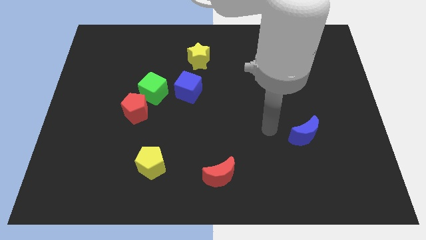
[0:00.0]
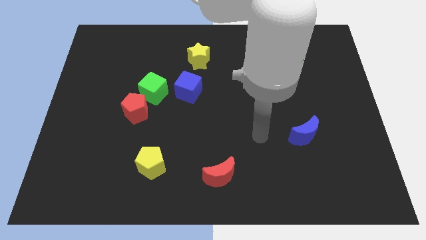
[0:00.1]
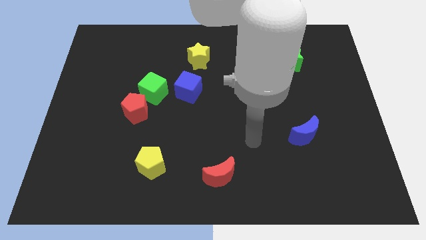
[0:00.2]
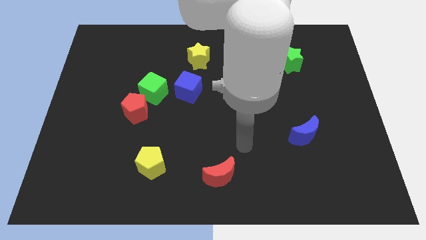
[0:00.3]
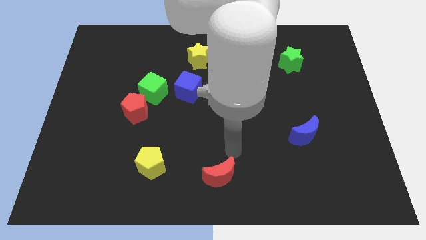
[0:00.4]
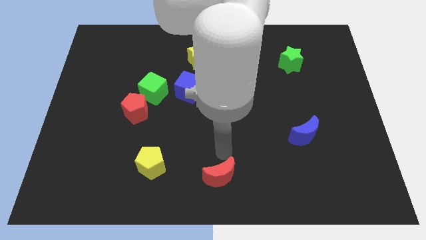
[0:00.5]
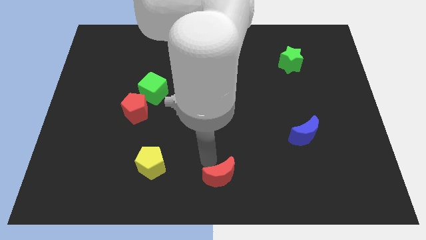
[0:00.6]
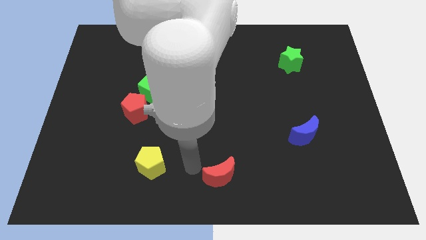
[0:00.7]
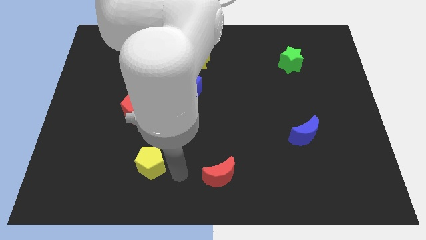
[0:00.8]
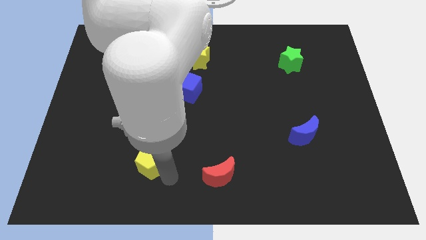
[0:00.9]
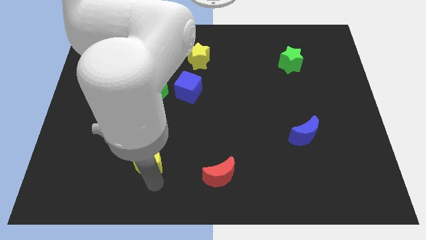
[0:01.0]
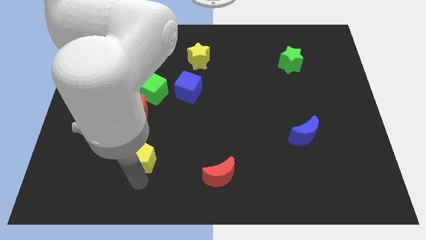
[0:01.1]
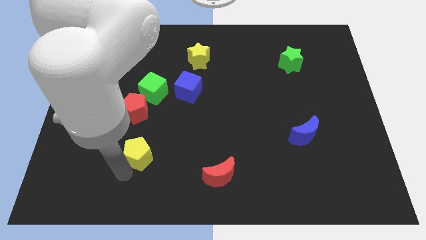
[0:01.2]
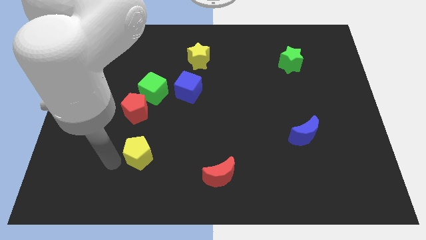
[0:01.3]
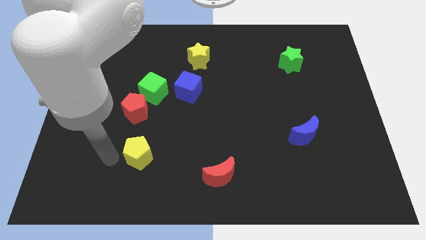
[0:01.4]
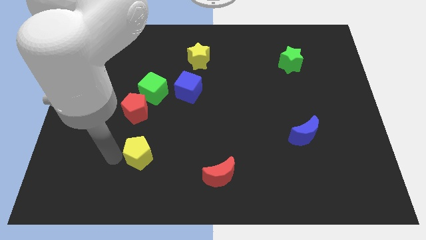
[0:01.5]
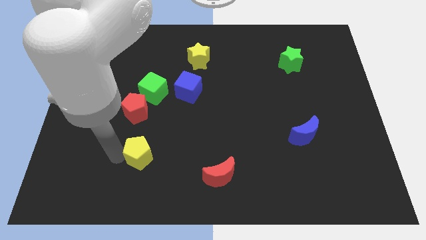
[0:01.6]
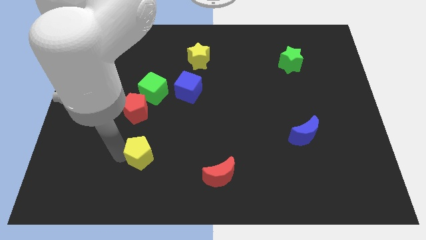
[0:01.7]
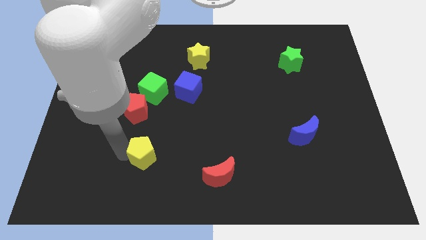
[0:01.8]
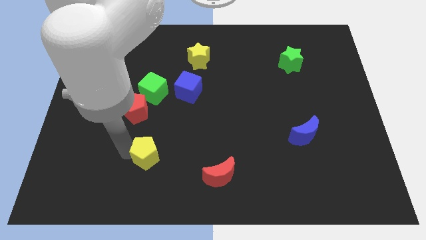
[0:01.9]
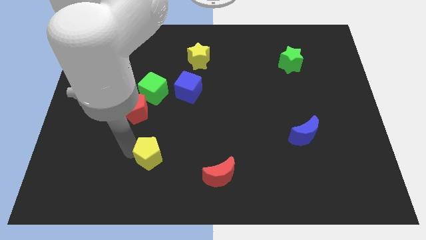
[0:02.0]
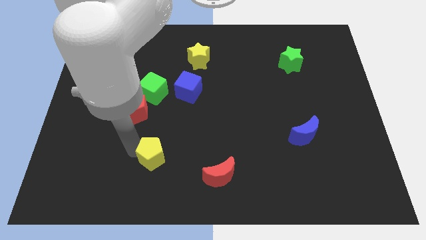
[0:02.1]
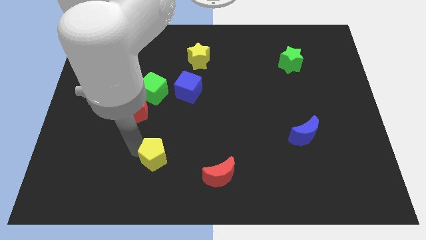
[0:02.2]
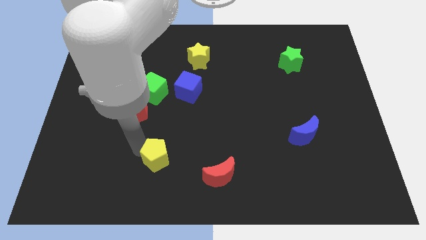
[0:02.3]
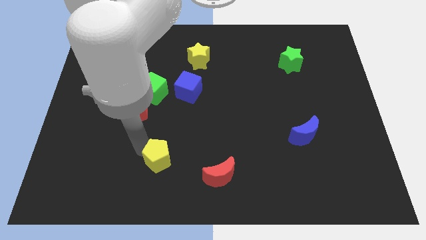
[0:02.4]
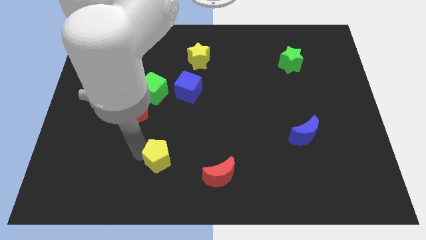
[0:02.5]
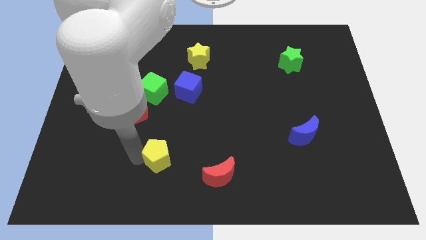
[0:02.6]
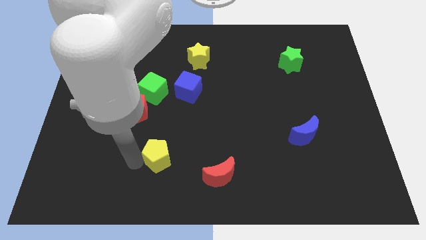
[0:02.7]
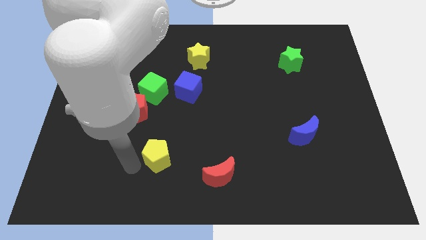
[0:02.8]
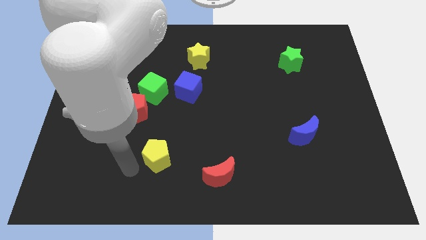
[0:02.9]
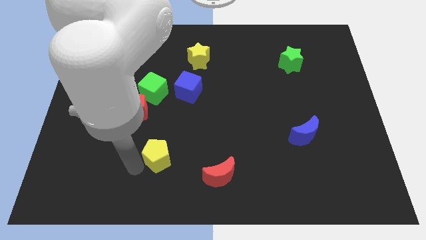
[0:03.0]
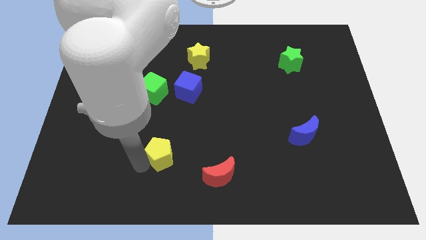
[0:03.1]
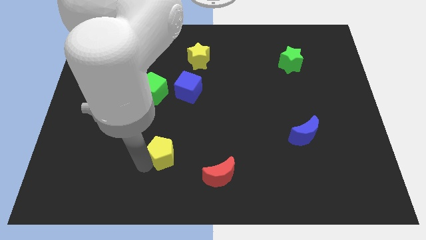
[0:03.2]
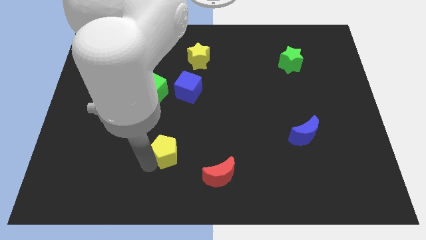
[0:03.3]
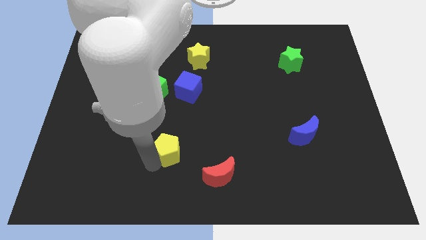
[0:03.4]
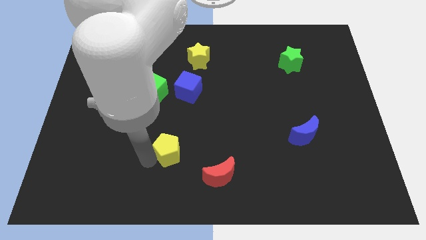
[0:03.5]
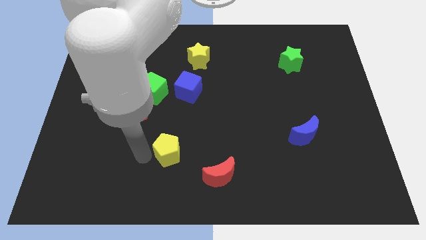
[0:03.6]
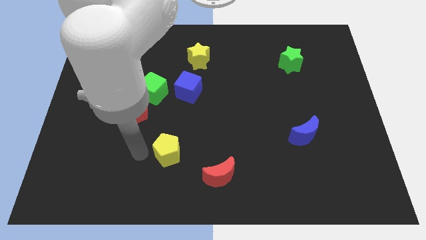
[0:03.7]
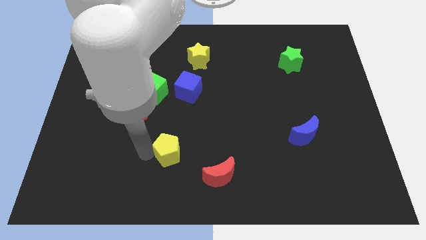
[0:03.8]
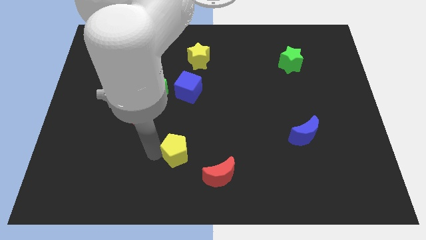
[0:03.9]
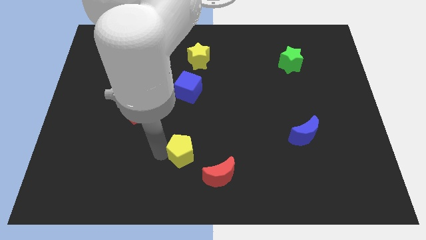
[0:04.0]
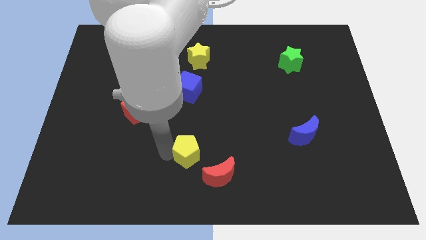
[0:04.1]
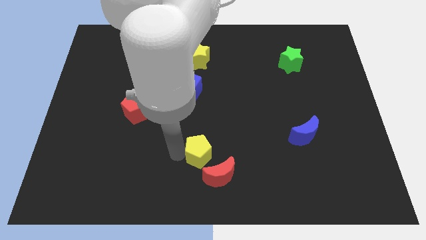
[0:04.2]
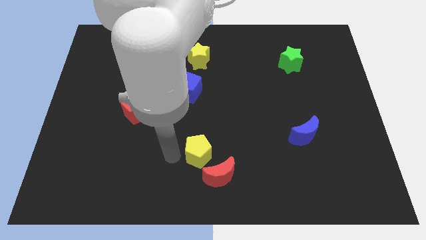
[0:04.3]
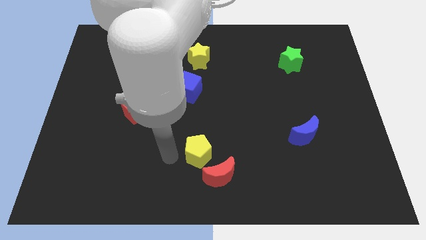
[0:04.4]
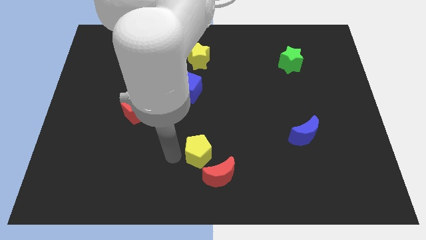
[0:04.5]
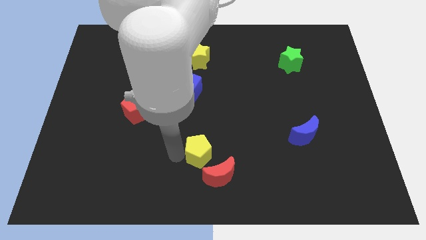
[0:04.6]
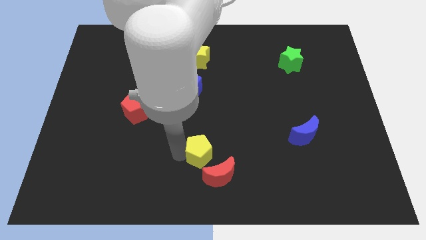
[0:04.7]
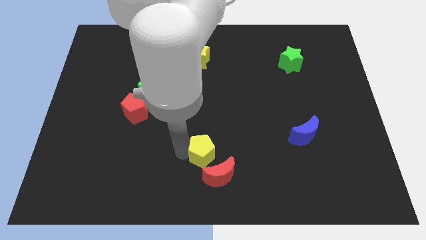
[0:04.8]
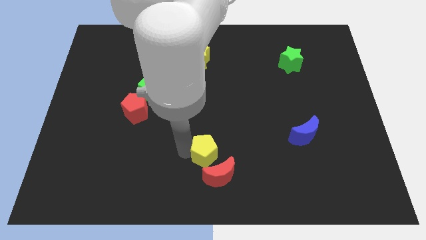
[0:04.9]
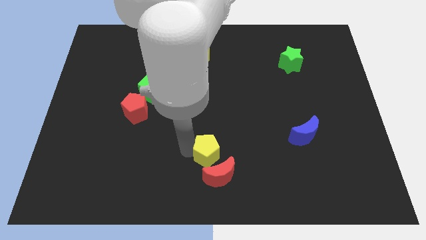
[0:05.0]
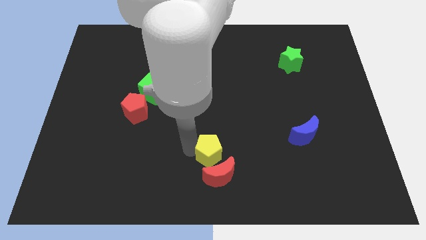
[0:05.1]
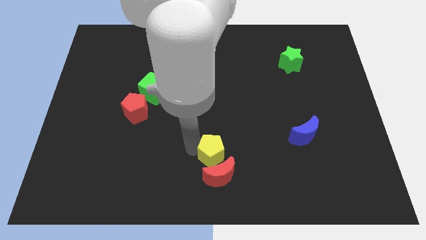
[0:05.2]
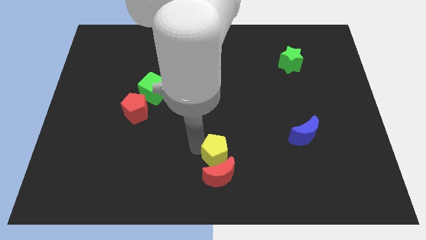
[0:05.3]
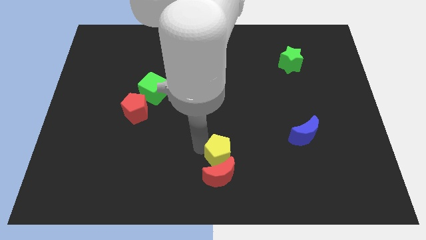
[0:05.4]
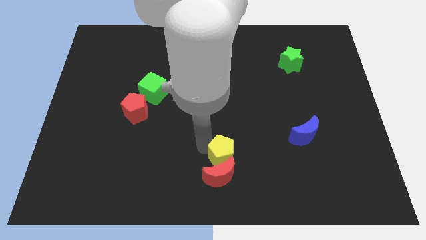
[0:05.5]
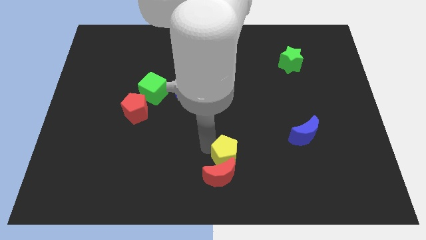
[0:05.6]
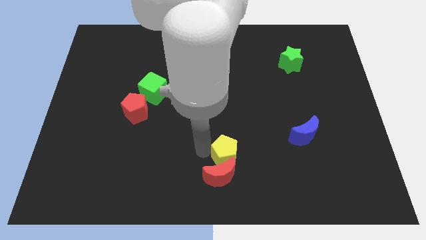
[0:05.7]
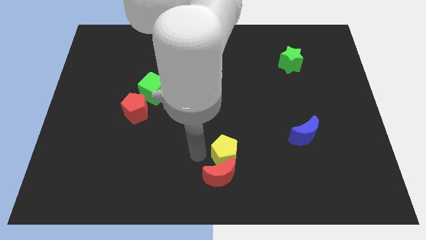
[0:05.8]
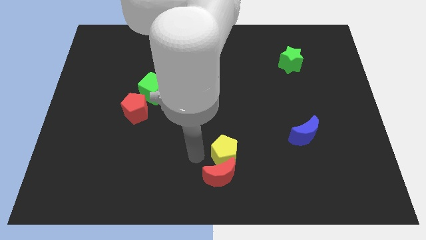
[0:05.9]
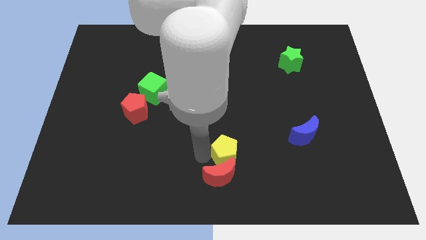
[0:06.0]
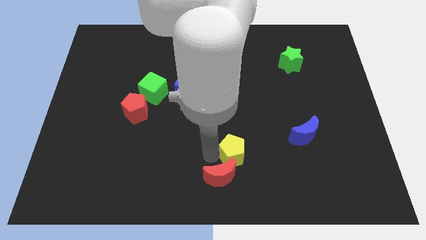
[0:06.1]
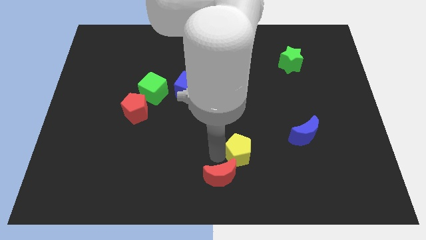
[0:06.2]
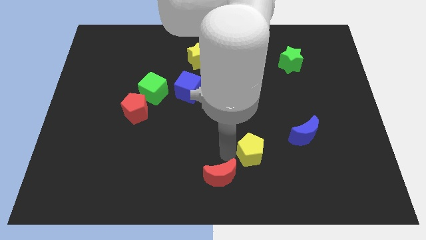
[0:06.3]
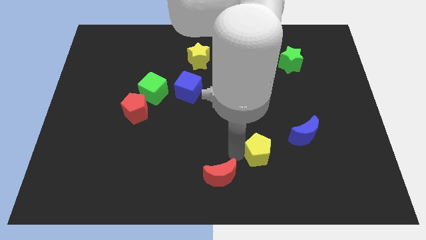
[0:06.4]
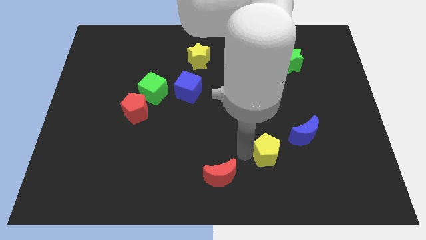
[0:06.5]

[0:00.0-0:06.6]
slide the yellow pentagon to the bottom left side of the blue moon

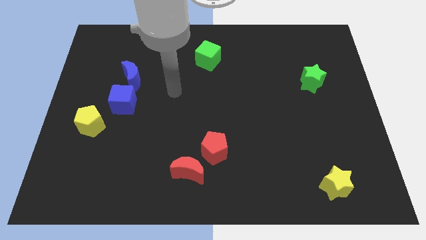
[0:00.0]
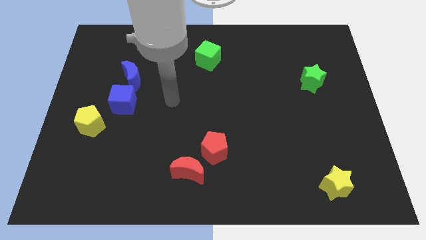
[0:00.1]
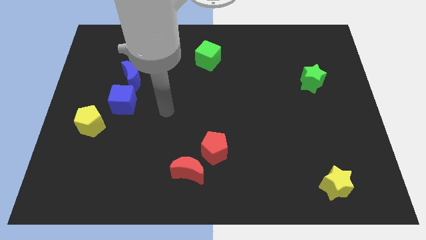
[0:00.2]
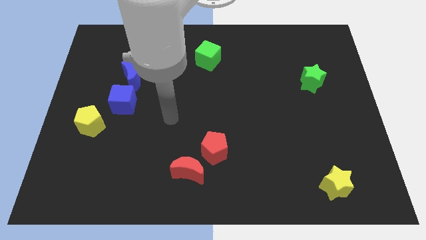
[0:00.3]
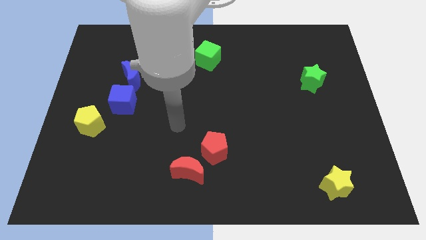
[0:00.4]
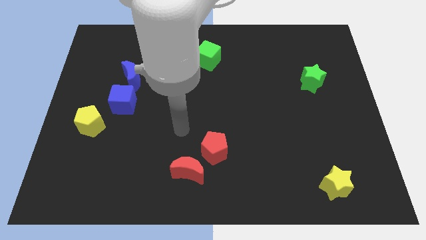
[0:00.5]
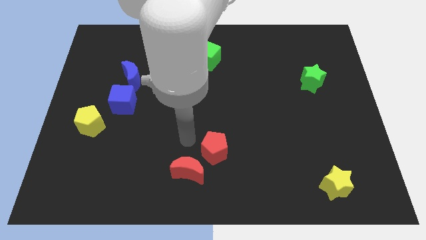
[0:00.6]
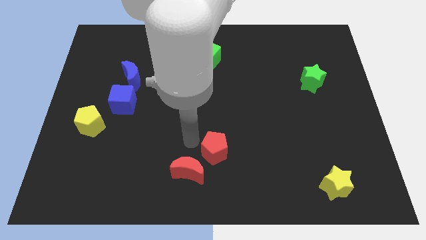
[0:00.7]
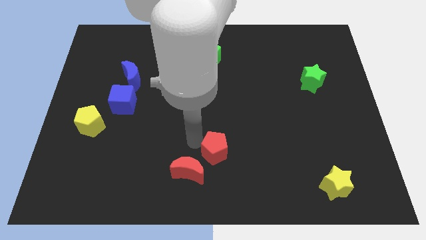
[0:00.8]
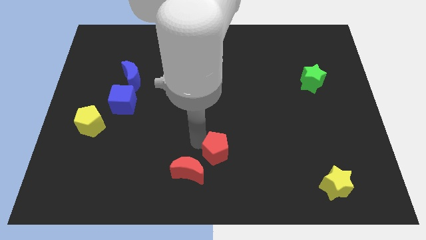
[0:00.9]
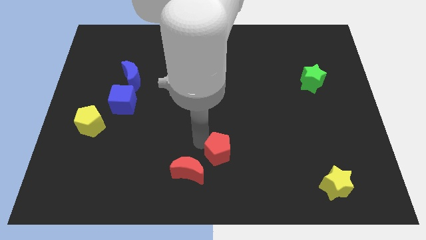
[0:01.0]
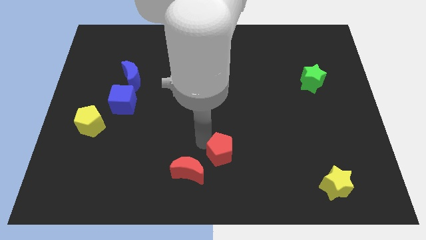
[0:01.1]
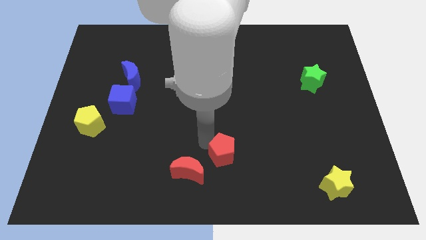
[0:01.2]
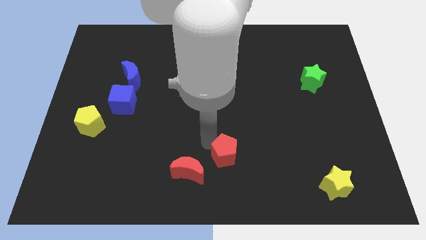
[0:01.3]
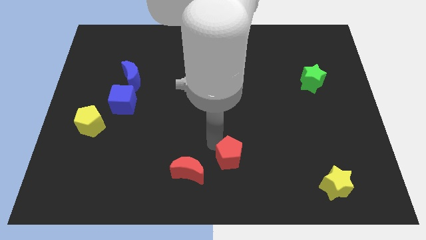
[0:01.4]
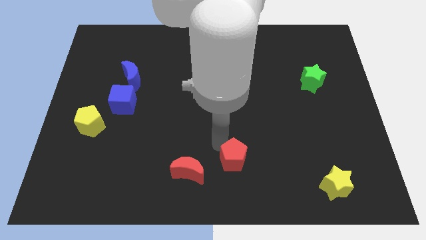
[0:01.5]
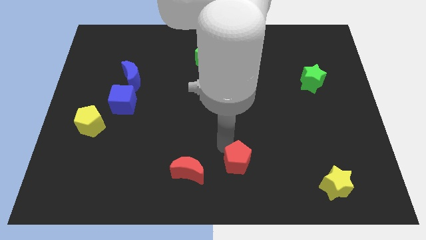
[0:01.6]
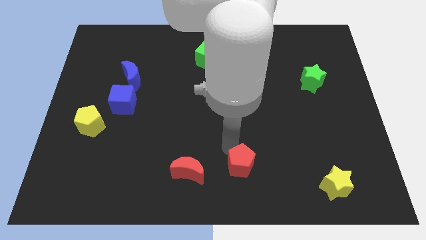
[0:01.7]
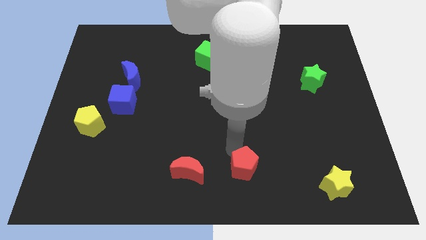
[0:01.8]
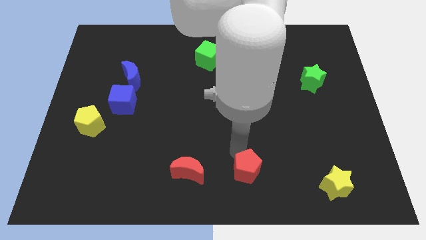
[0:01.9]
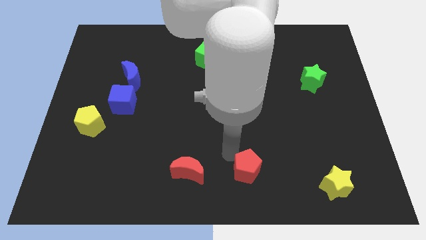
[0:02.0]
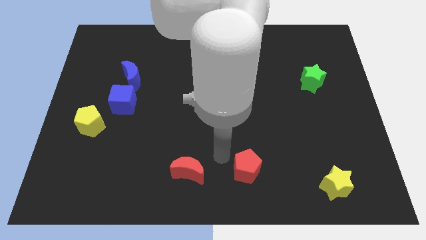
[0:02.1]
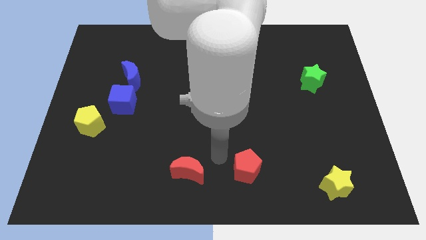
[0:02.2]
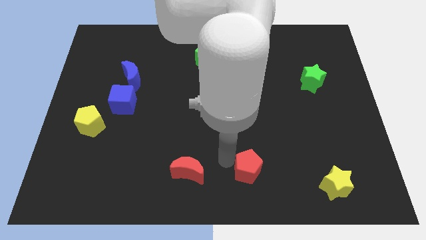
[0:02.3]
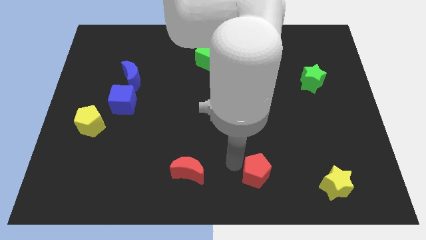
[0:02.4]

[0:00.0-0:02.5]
move the red pentagon left of the yellow star
